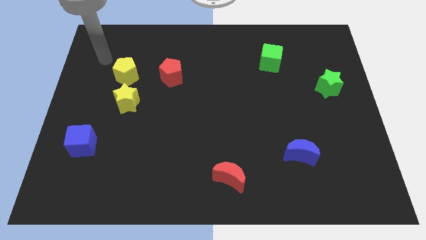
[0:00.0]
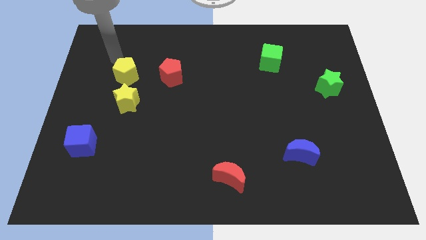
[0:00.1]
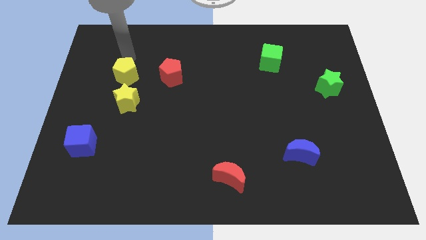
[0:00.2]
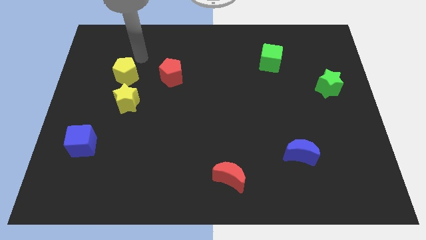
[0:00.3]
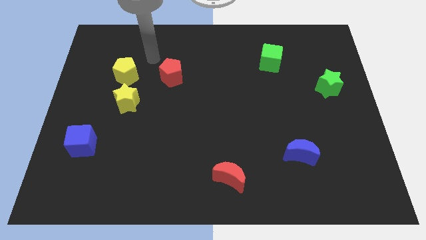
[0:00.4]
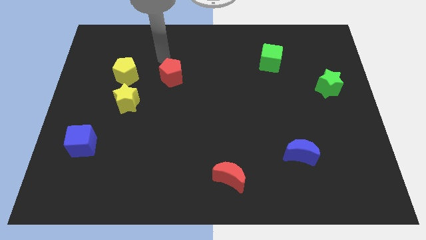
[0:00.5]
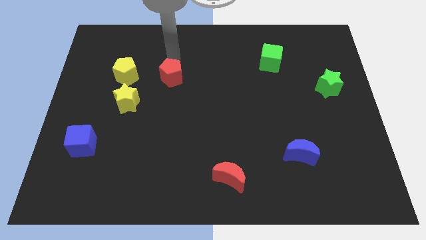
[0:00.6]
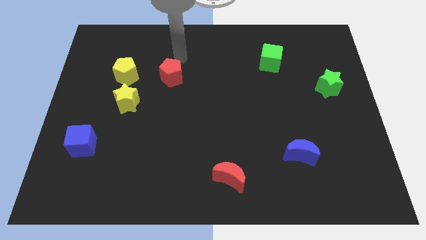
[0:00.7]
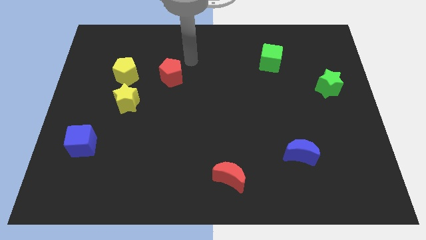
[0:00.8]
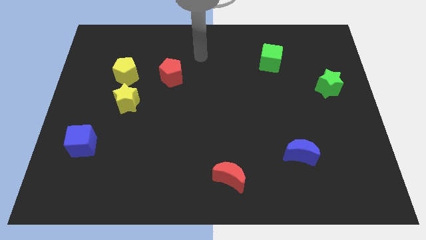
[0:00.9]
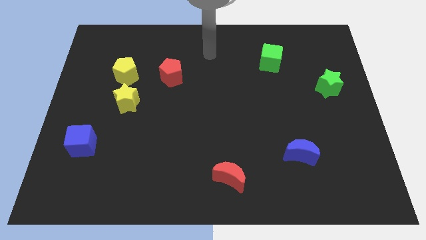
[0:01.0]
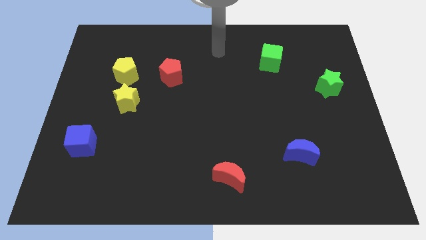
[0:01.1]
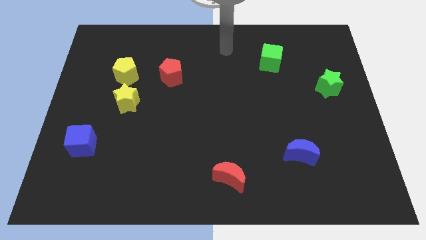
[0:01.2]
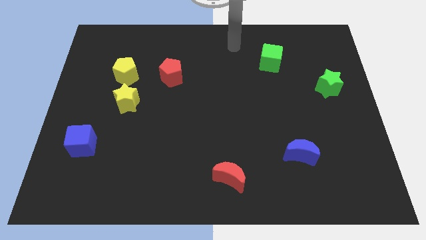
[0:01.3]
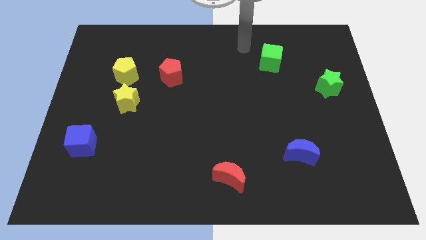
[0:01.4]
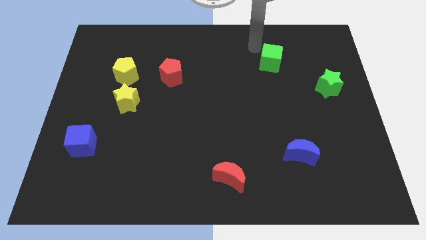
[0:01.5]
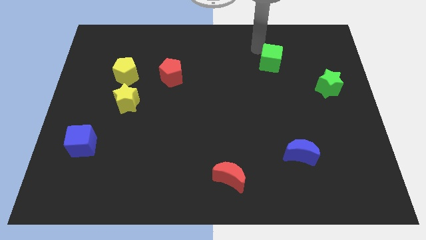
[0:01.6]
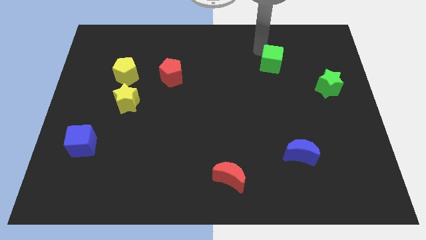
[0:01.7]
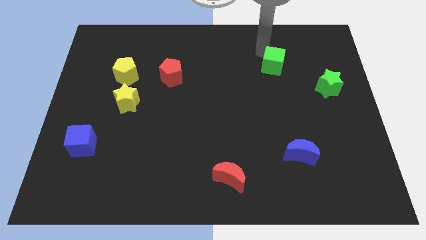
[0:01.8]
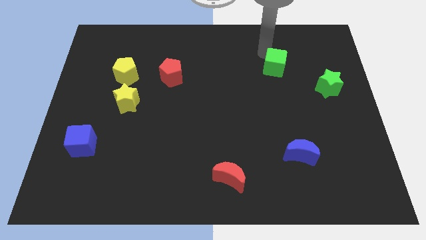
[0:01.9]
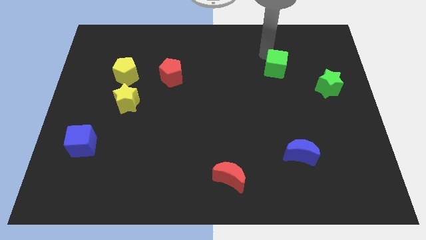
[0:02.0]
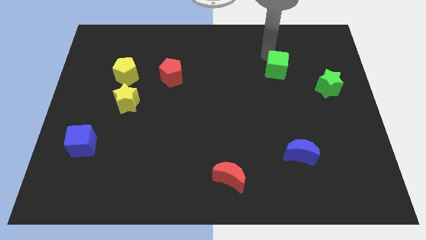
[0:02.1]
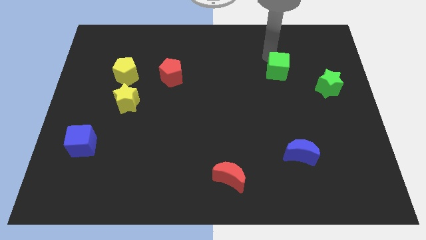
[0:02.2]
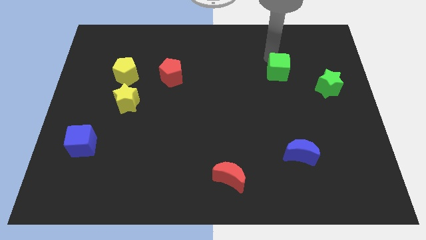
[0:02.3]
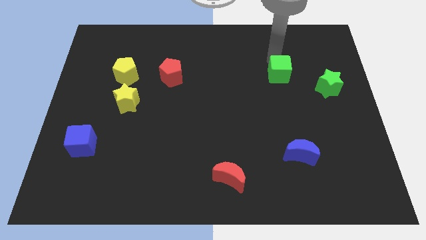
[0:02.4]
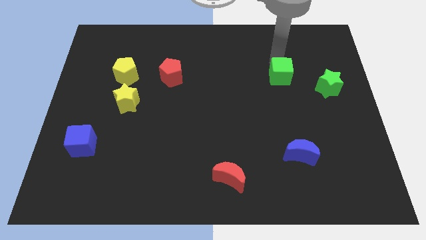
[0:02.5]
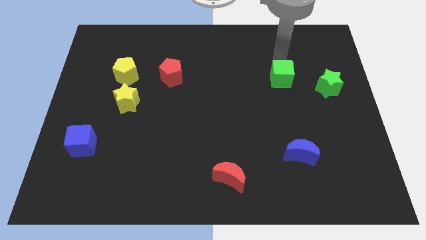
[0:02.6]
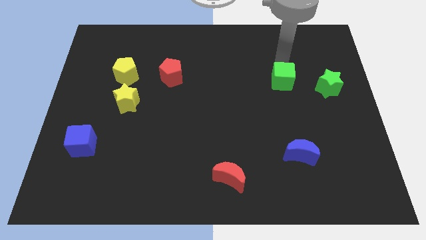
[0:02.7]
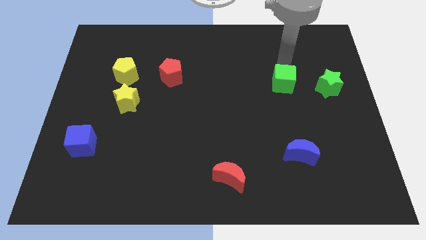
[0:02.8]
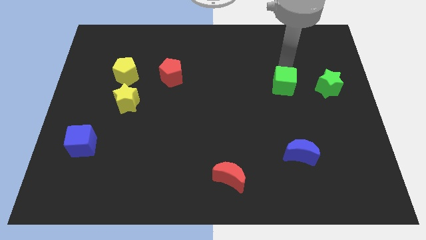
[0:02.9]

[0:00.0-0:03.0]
slightly move the green cube down and to the right diagonally

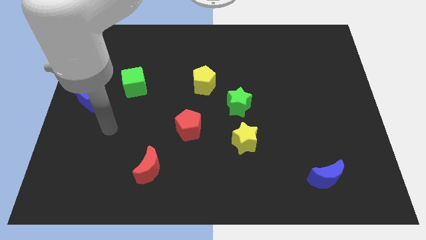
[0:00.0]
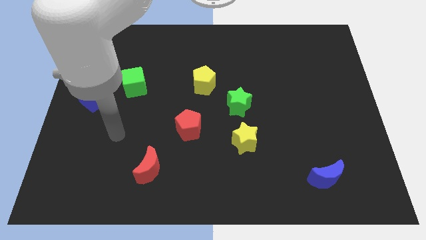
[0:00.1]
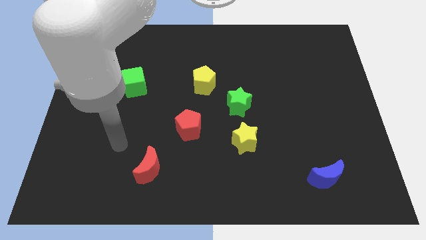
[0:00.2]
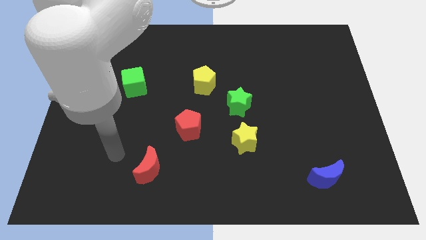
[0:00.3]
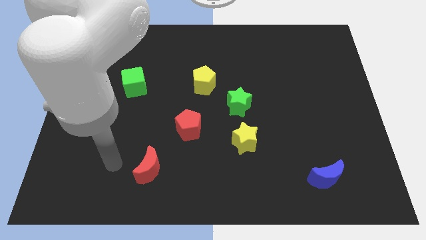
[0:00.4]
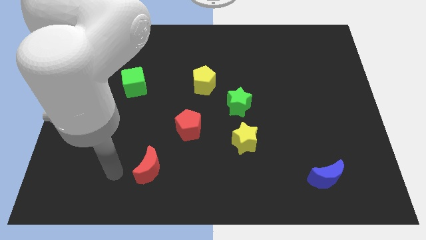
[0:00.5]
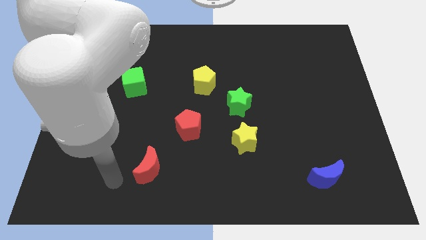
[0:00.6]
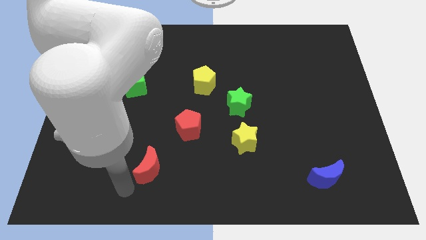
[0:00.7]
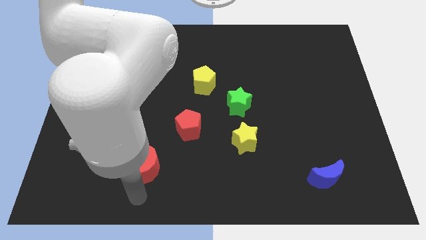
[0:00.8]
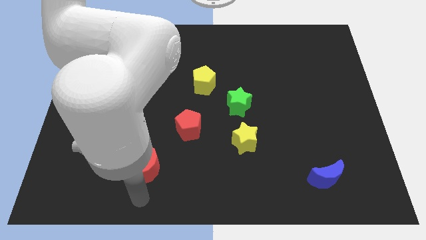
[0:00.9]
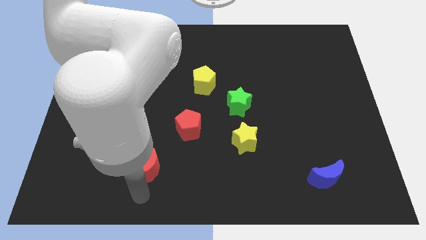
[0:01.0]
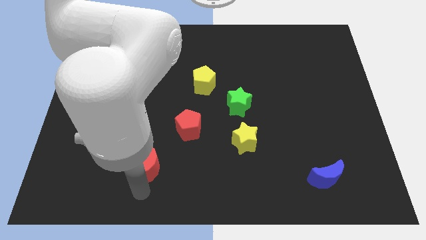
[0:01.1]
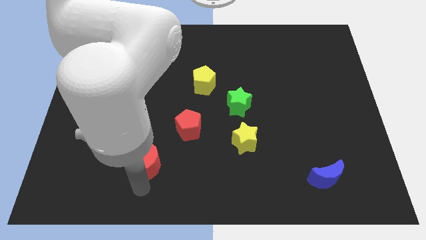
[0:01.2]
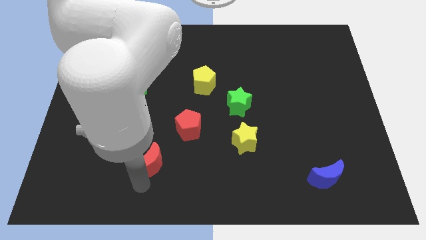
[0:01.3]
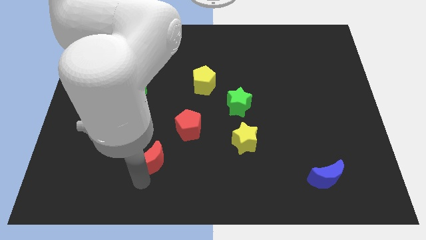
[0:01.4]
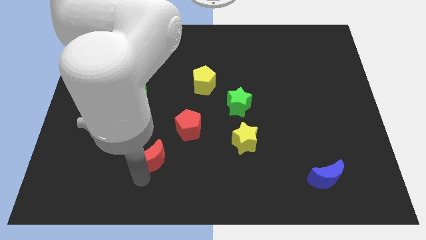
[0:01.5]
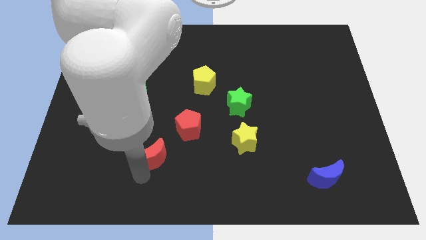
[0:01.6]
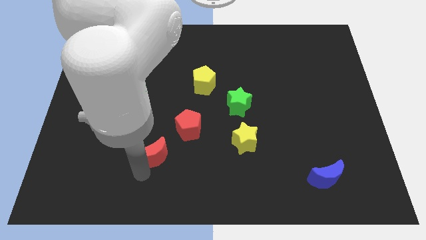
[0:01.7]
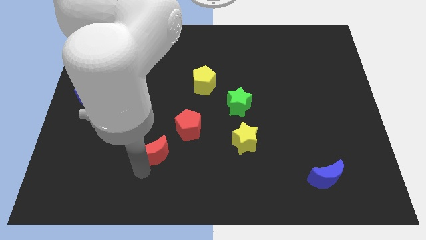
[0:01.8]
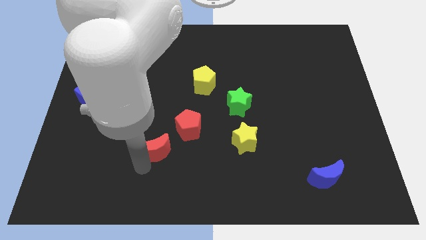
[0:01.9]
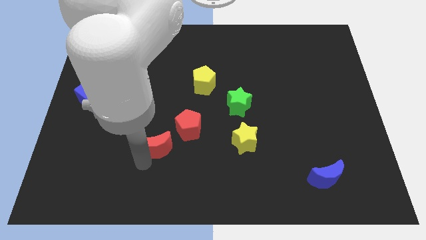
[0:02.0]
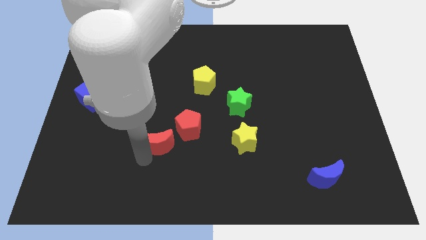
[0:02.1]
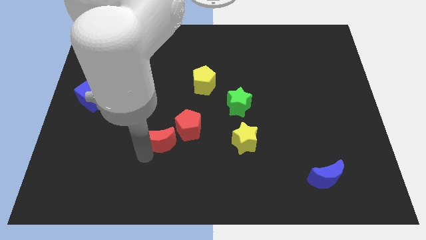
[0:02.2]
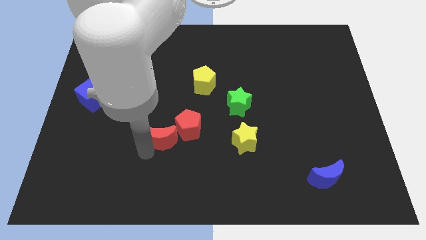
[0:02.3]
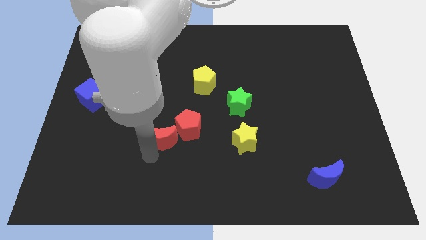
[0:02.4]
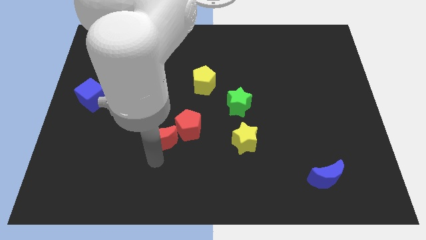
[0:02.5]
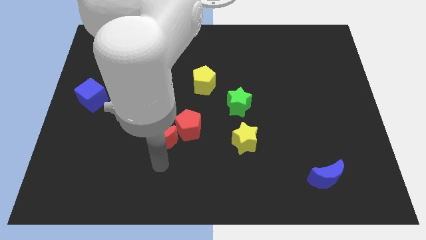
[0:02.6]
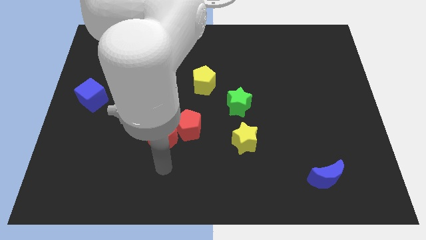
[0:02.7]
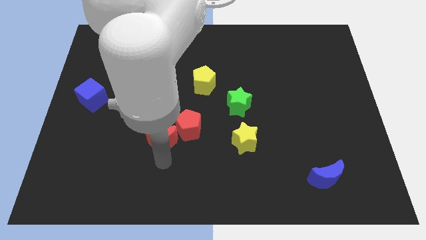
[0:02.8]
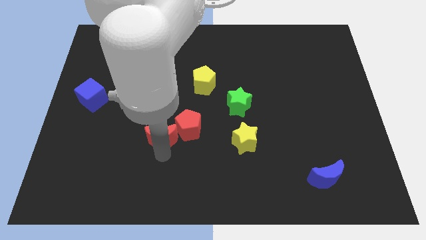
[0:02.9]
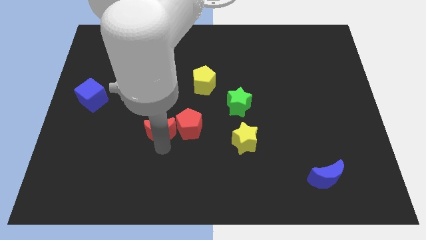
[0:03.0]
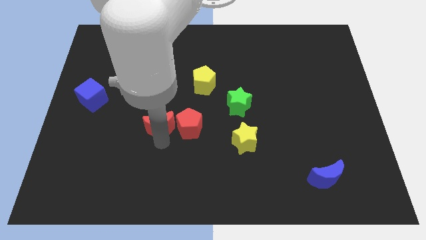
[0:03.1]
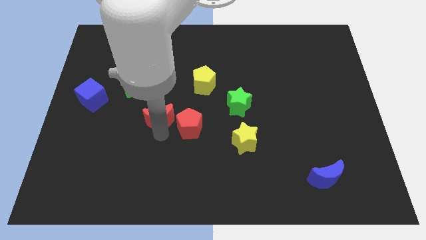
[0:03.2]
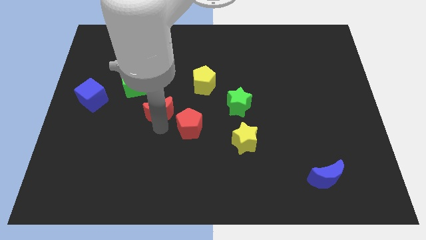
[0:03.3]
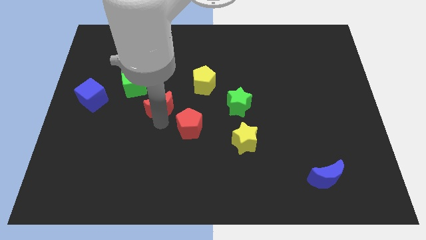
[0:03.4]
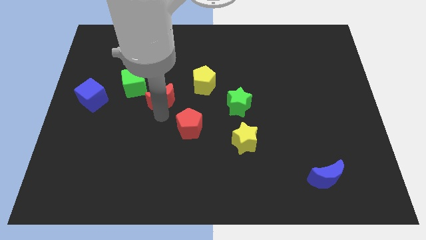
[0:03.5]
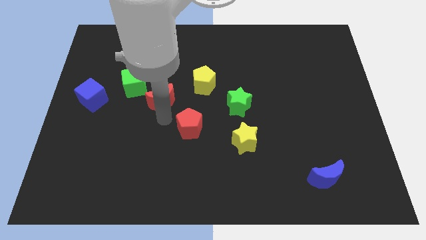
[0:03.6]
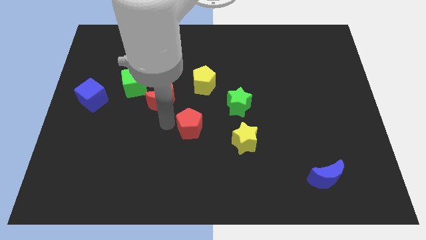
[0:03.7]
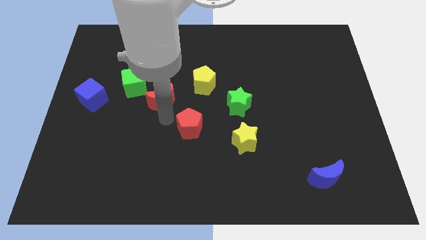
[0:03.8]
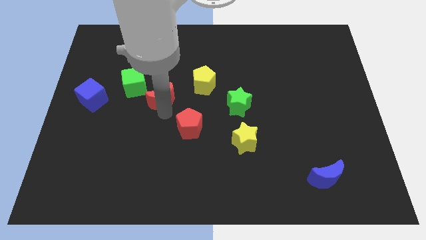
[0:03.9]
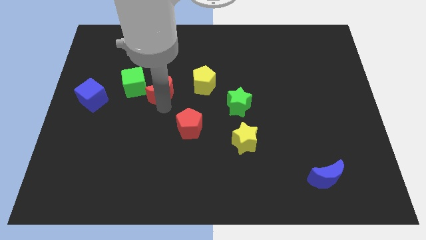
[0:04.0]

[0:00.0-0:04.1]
slide the red moon up

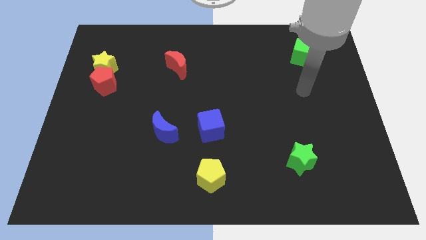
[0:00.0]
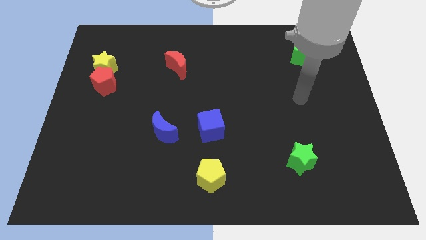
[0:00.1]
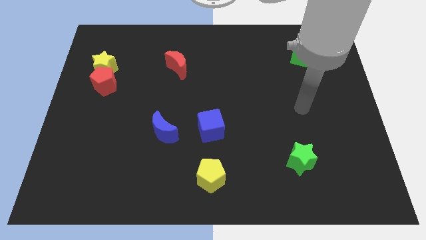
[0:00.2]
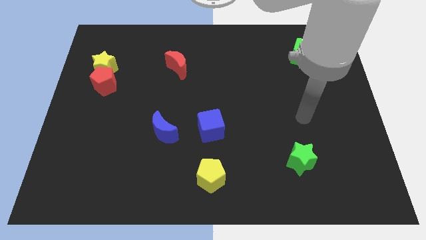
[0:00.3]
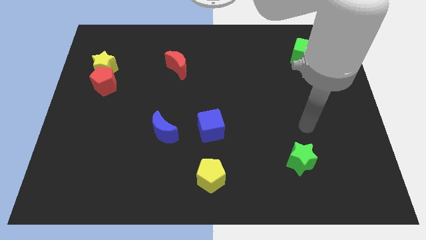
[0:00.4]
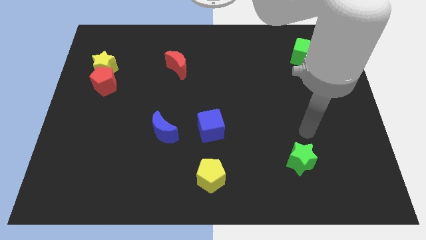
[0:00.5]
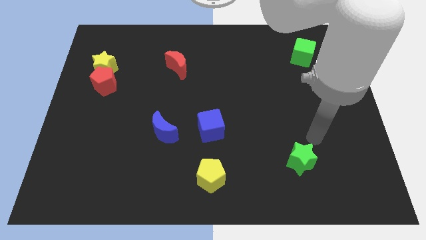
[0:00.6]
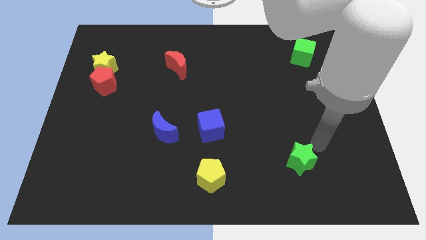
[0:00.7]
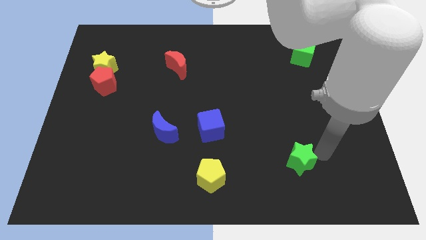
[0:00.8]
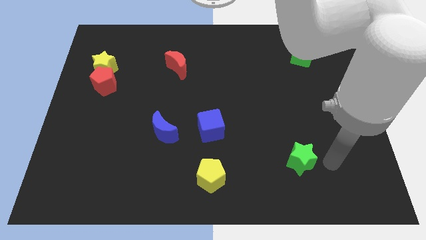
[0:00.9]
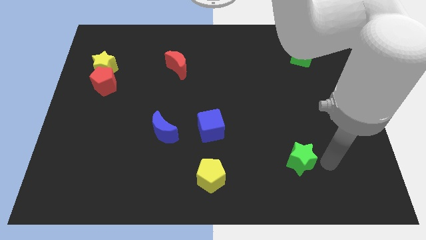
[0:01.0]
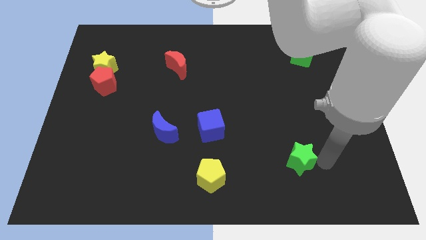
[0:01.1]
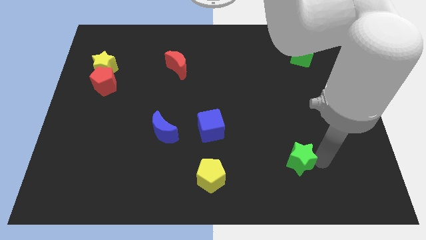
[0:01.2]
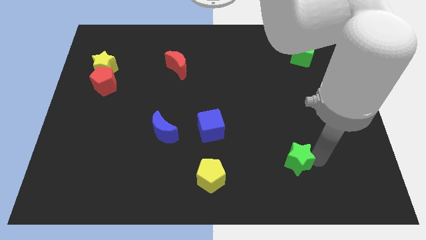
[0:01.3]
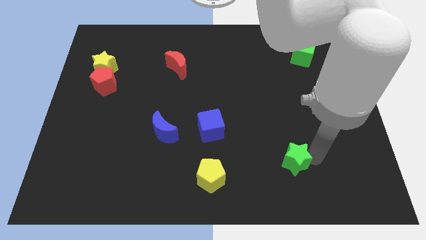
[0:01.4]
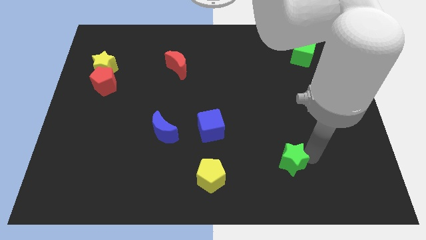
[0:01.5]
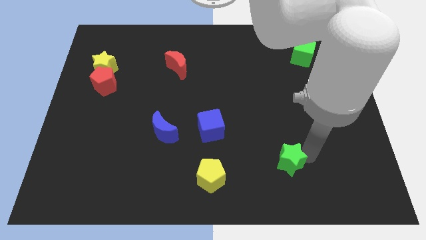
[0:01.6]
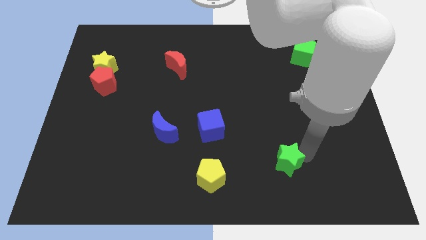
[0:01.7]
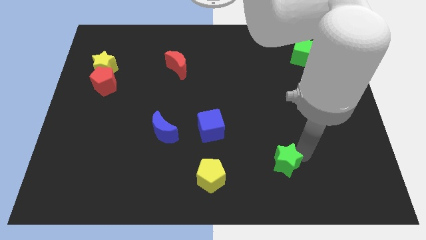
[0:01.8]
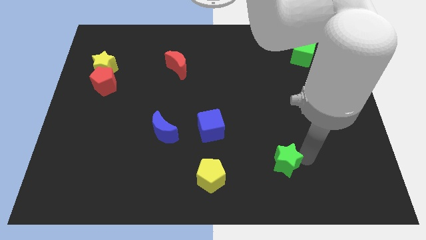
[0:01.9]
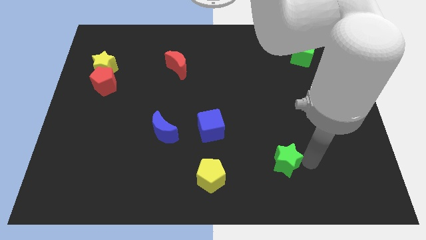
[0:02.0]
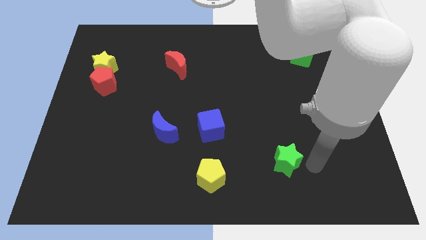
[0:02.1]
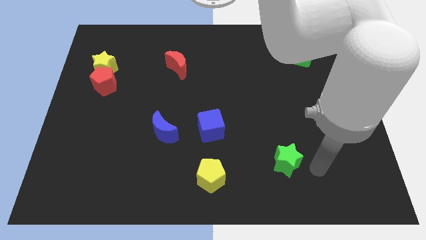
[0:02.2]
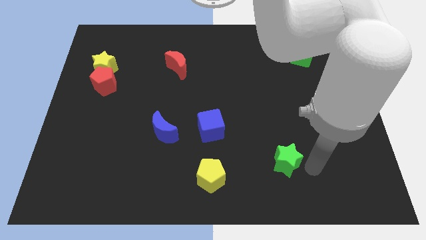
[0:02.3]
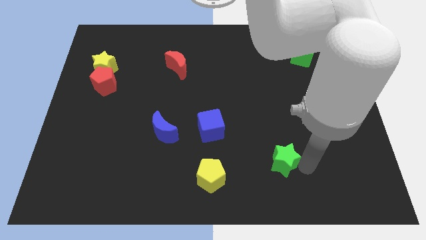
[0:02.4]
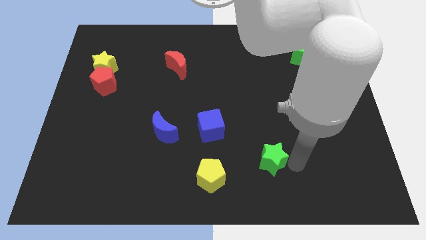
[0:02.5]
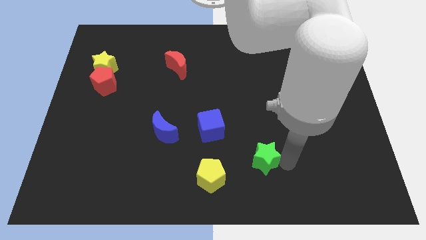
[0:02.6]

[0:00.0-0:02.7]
slide the green star a bit left
